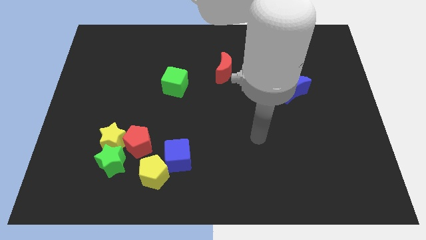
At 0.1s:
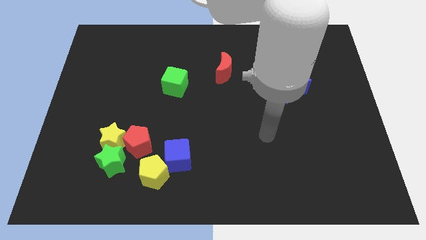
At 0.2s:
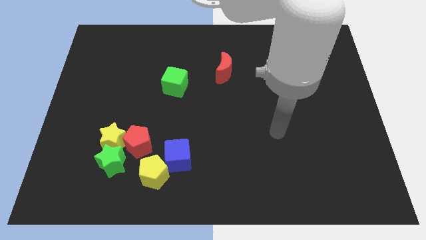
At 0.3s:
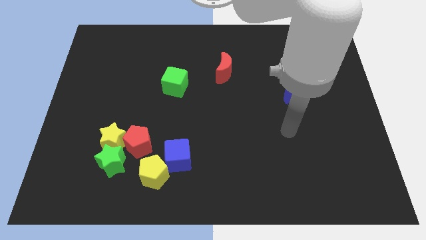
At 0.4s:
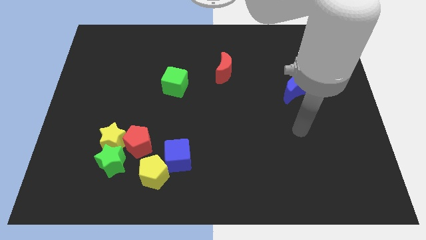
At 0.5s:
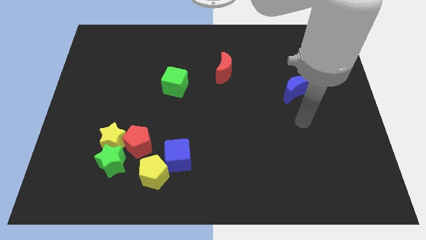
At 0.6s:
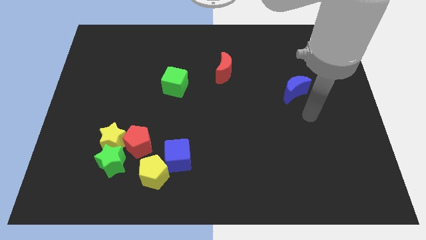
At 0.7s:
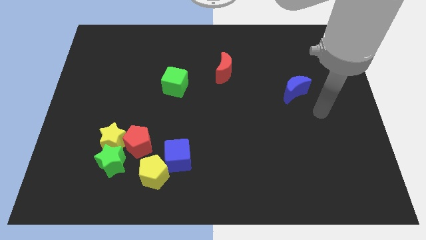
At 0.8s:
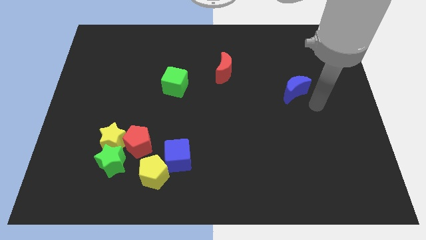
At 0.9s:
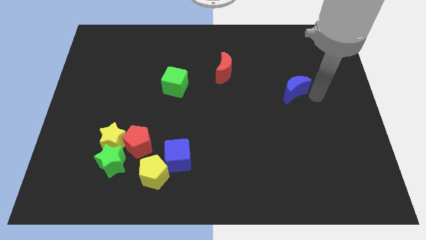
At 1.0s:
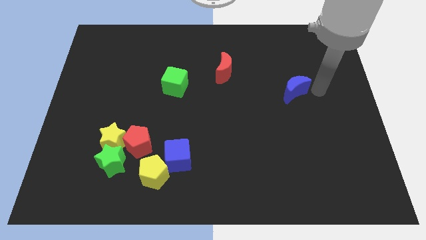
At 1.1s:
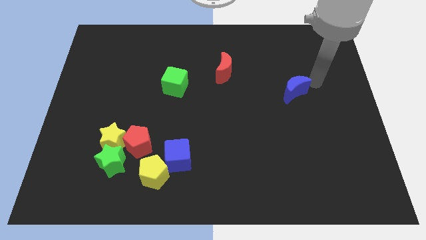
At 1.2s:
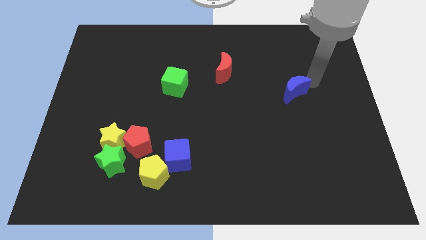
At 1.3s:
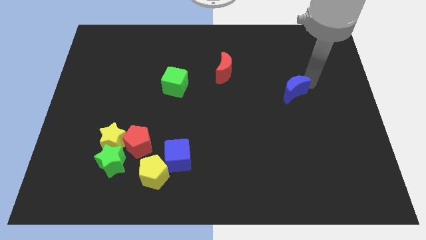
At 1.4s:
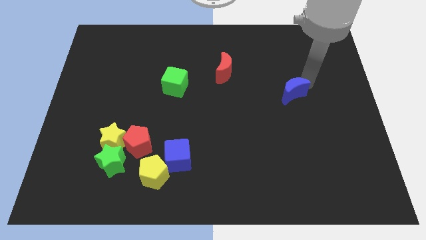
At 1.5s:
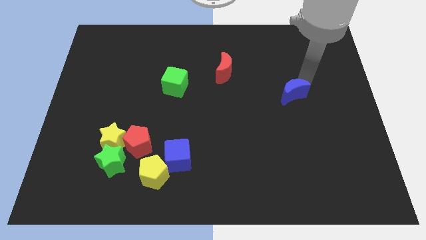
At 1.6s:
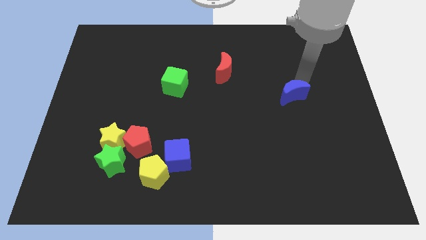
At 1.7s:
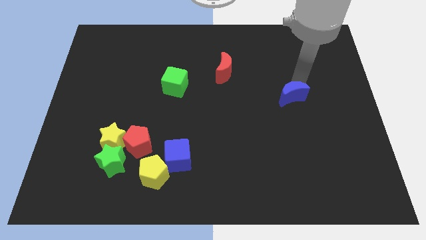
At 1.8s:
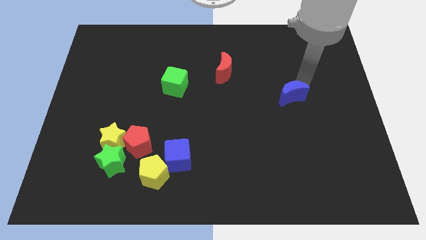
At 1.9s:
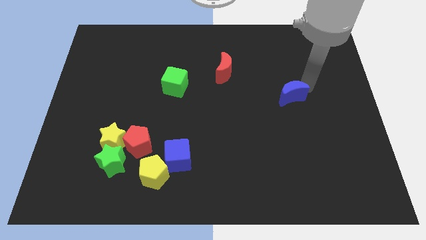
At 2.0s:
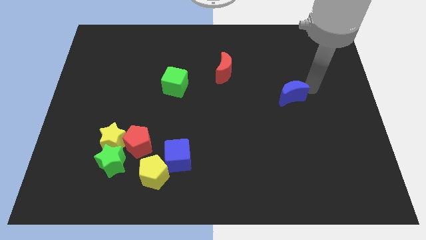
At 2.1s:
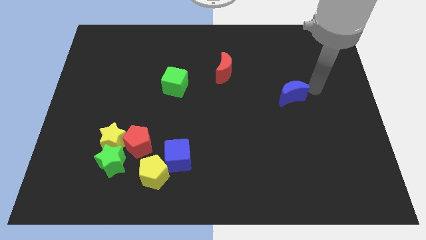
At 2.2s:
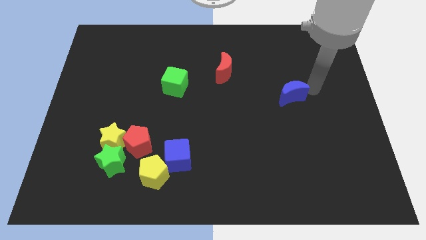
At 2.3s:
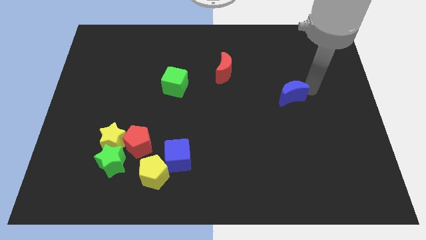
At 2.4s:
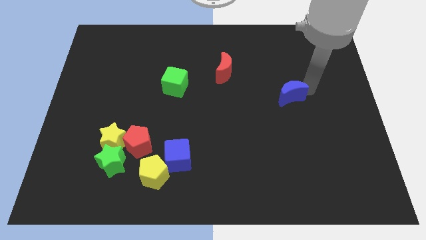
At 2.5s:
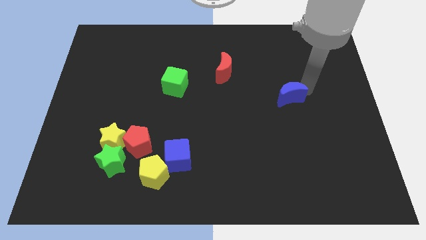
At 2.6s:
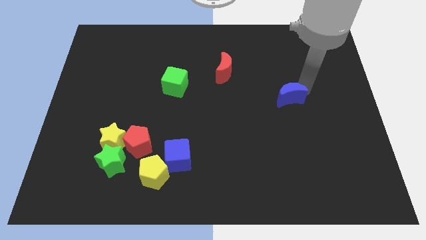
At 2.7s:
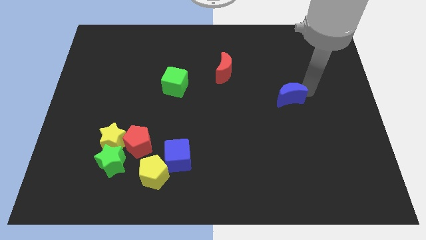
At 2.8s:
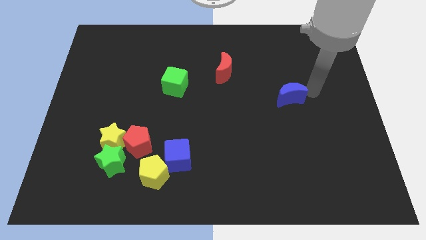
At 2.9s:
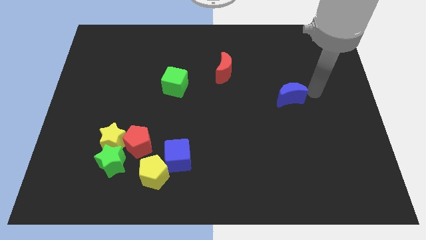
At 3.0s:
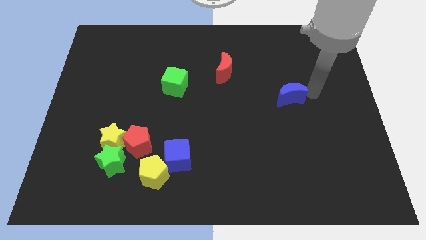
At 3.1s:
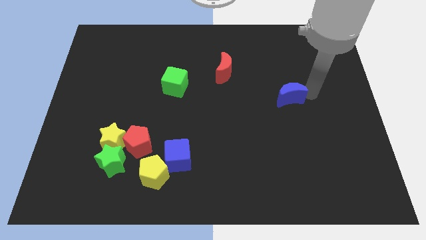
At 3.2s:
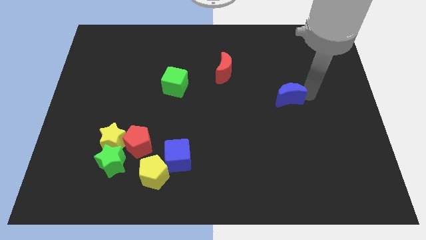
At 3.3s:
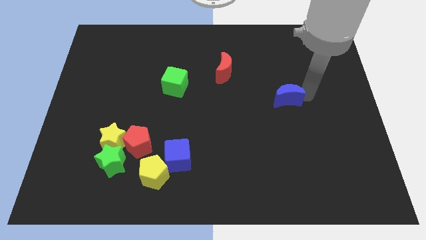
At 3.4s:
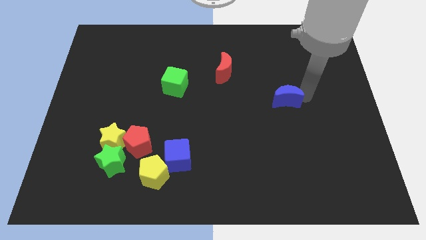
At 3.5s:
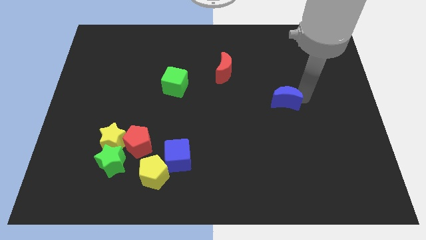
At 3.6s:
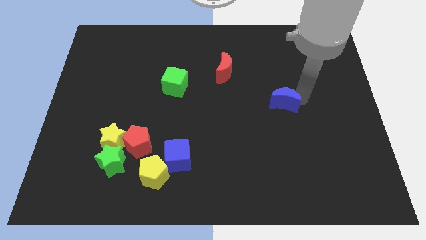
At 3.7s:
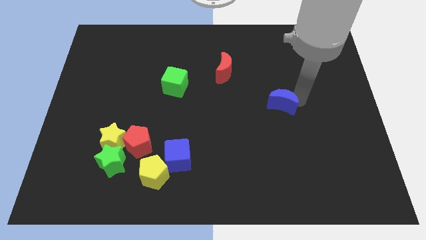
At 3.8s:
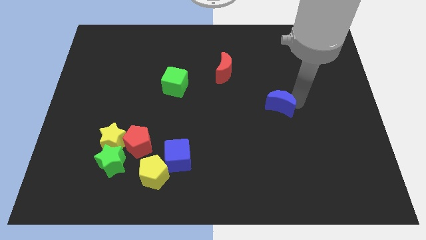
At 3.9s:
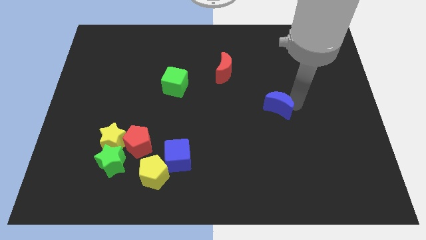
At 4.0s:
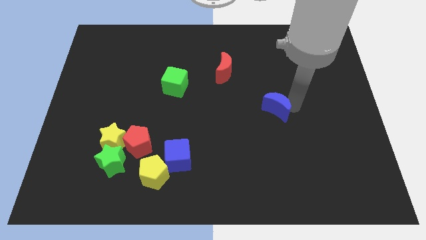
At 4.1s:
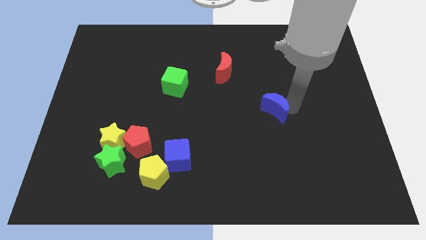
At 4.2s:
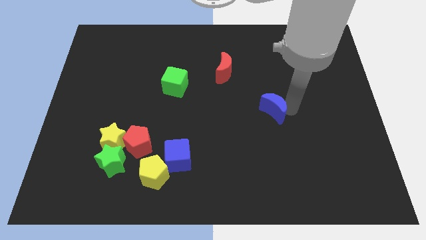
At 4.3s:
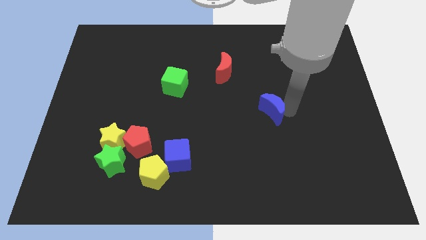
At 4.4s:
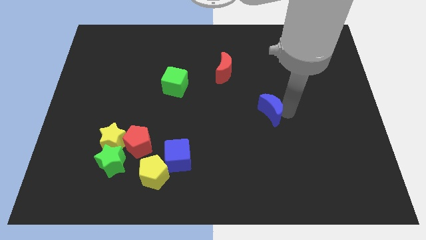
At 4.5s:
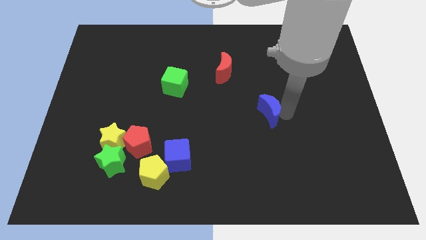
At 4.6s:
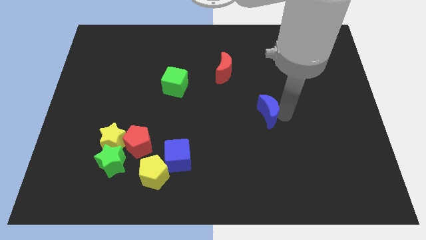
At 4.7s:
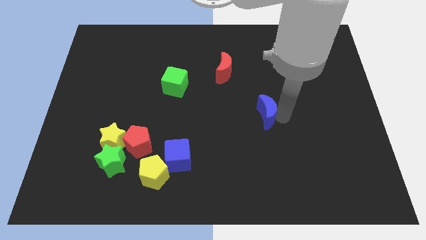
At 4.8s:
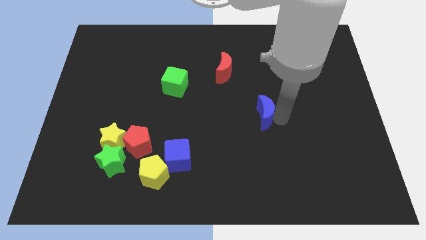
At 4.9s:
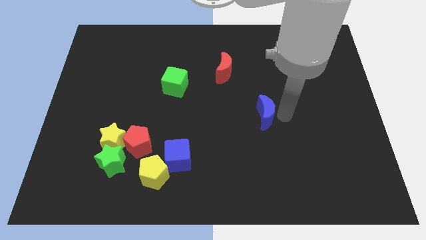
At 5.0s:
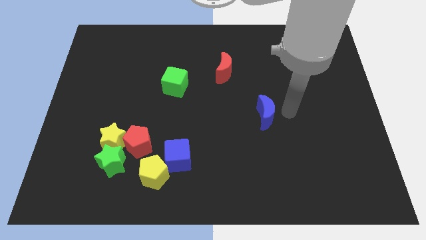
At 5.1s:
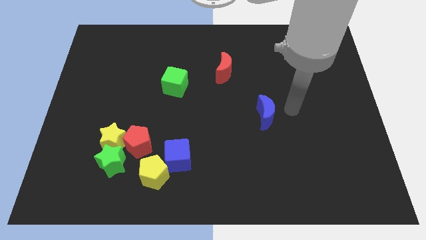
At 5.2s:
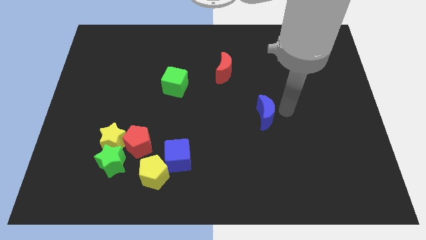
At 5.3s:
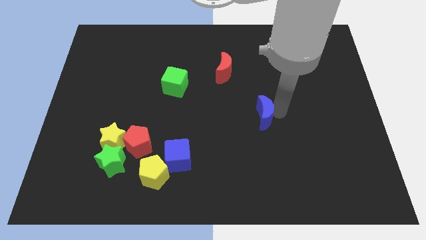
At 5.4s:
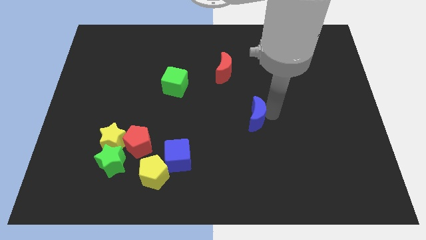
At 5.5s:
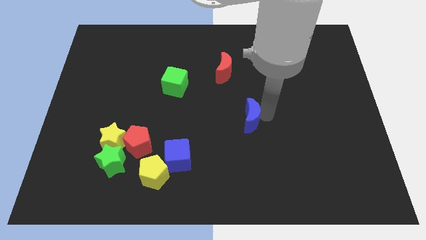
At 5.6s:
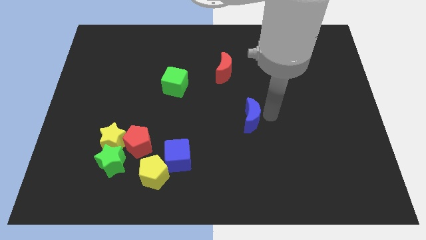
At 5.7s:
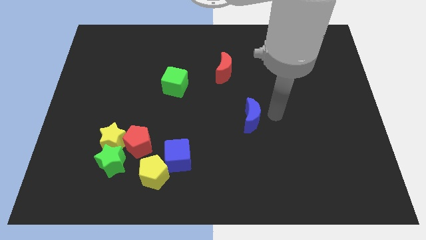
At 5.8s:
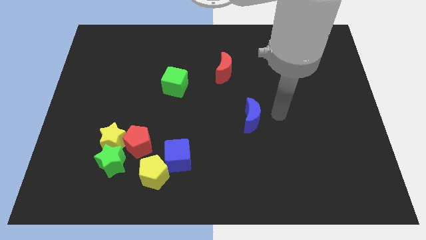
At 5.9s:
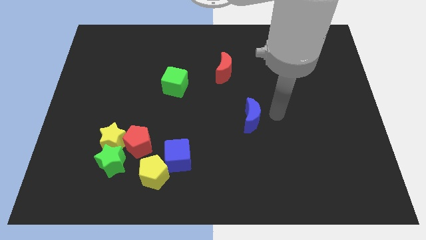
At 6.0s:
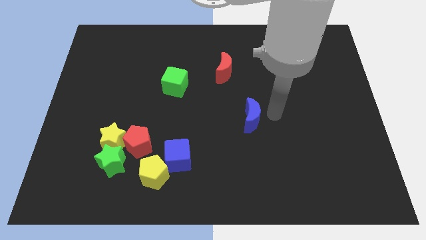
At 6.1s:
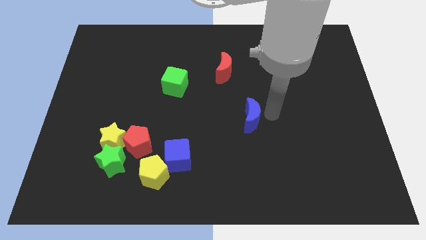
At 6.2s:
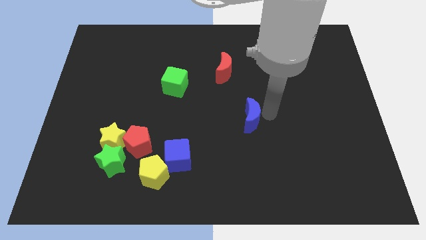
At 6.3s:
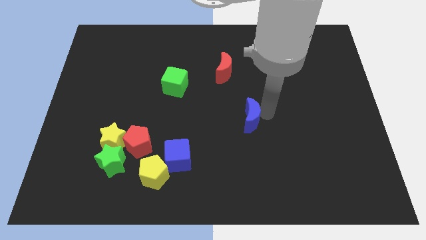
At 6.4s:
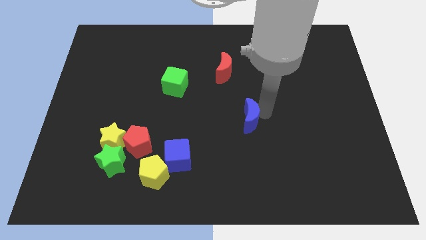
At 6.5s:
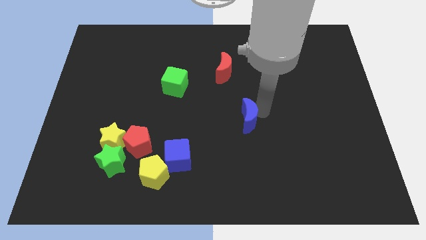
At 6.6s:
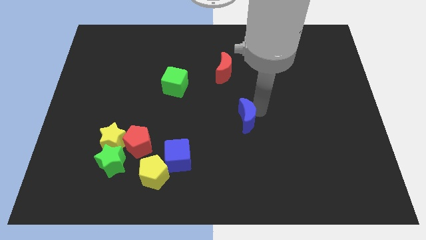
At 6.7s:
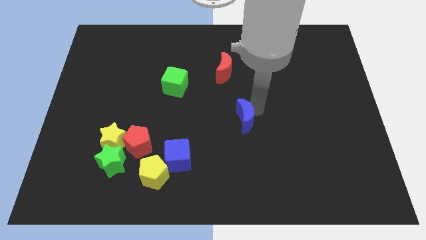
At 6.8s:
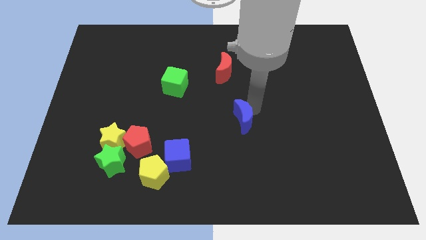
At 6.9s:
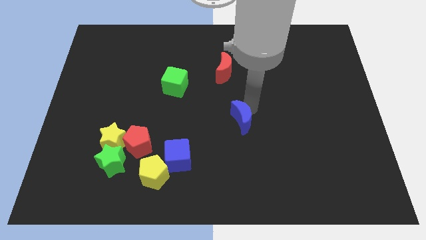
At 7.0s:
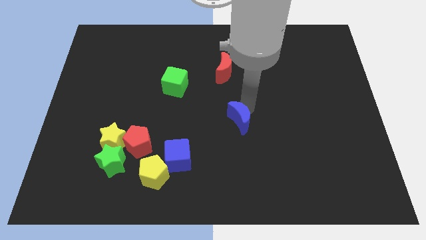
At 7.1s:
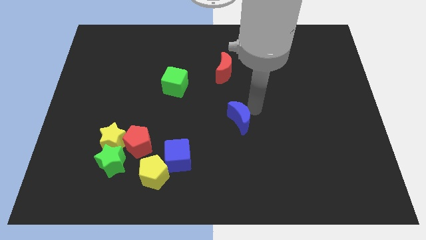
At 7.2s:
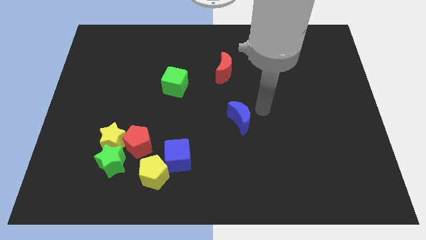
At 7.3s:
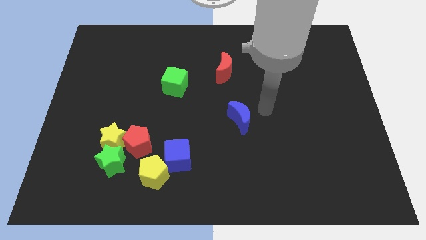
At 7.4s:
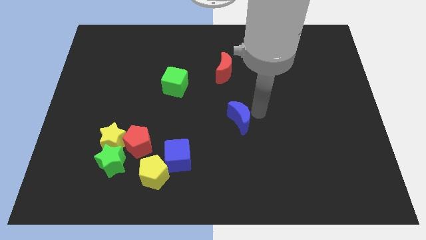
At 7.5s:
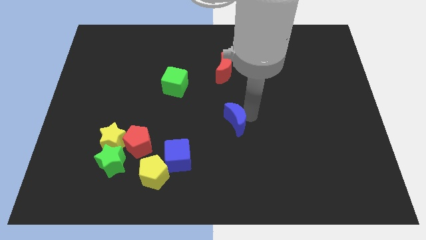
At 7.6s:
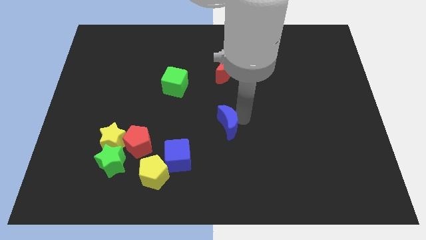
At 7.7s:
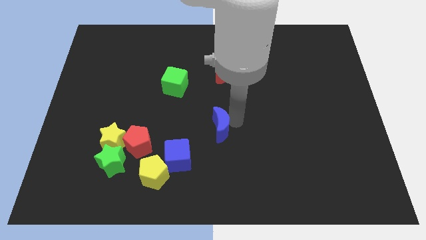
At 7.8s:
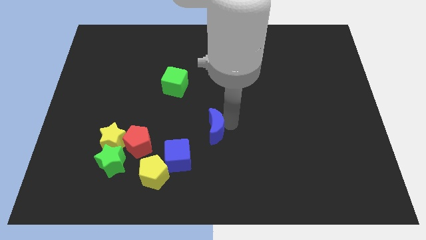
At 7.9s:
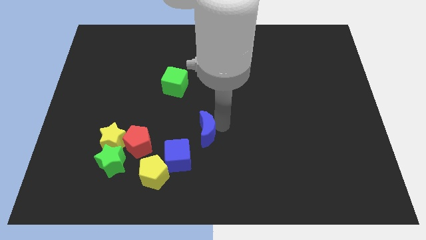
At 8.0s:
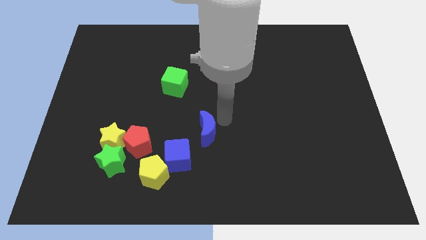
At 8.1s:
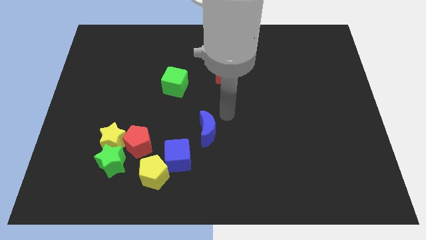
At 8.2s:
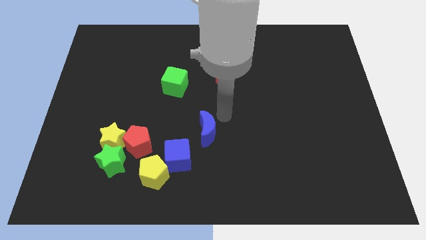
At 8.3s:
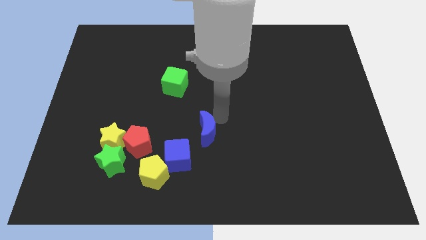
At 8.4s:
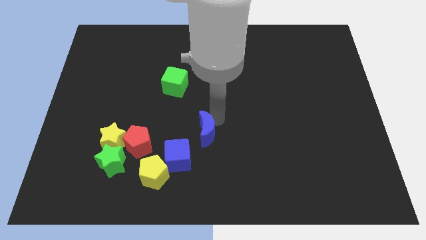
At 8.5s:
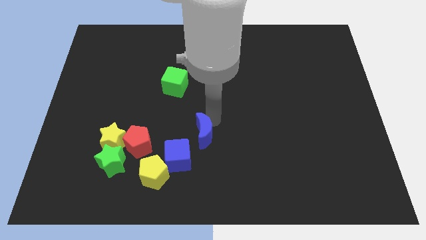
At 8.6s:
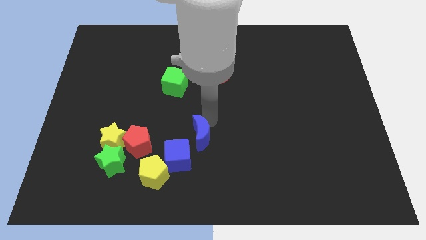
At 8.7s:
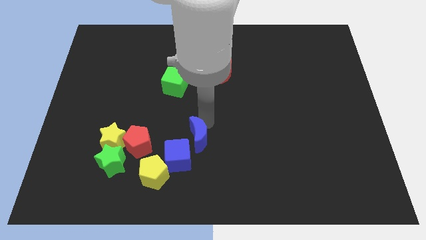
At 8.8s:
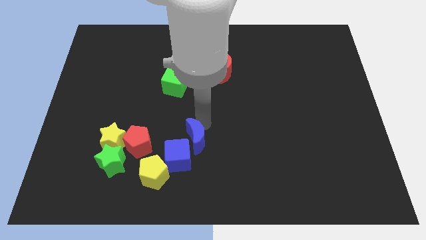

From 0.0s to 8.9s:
slide the blue moon next to the blue cube
